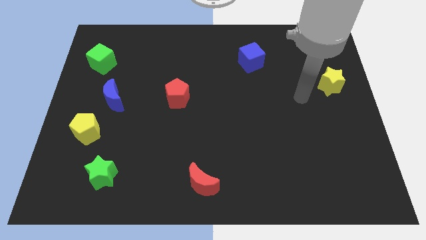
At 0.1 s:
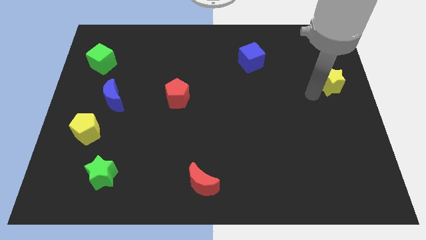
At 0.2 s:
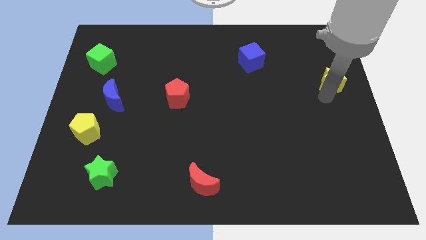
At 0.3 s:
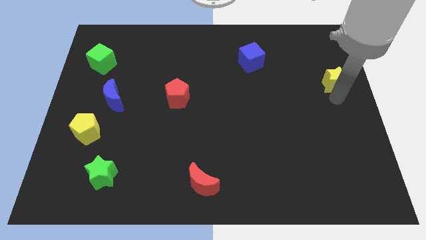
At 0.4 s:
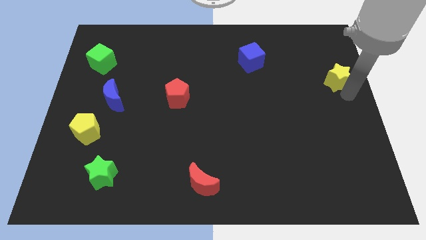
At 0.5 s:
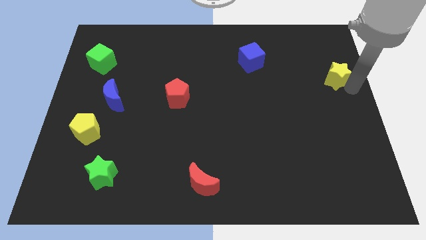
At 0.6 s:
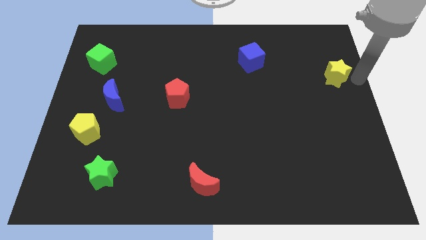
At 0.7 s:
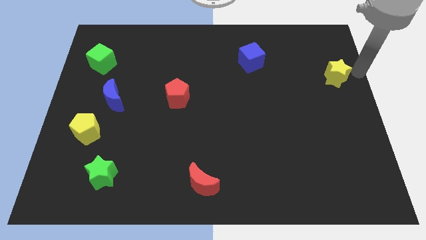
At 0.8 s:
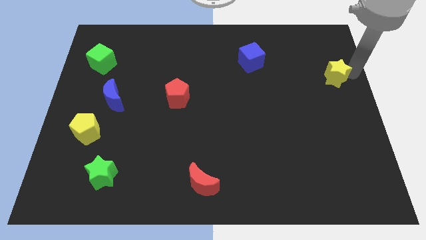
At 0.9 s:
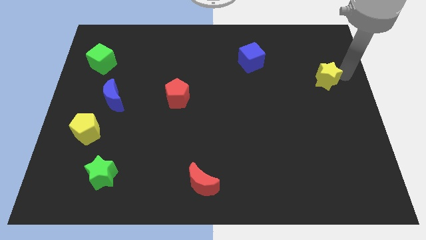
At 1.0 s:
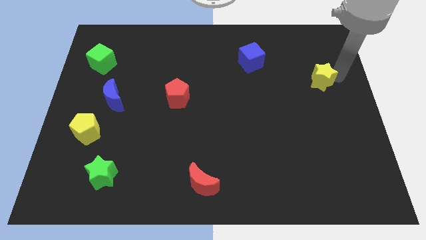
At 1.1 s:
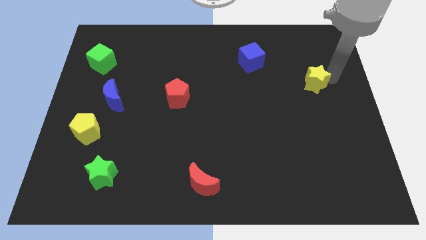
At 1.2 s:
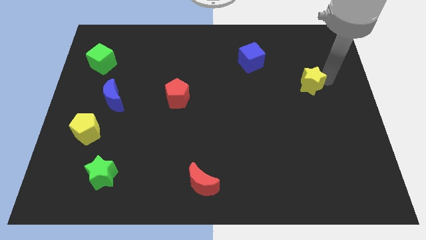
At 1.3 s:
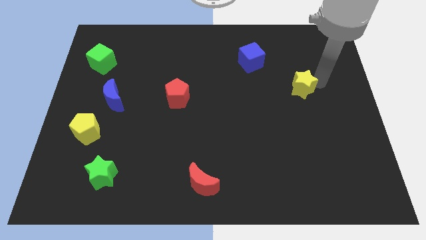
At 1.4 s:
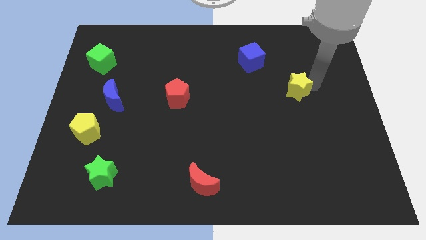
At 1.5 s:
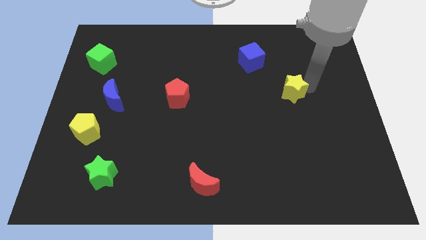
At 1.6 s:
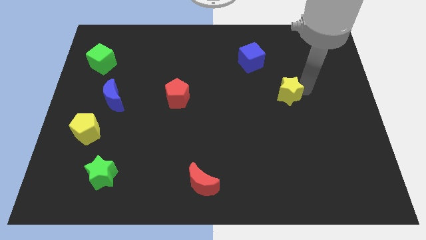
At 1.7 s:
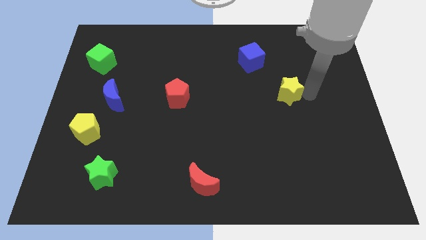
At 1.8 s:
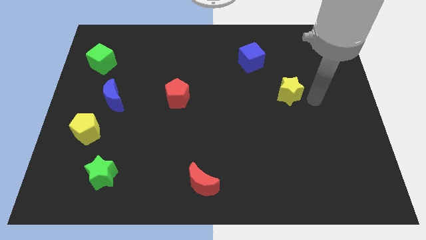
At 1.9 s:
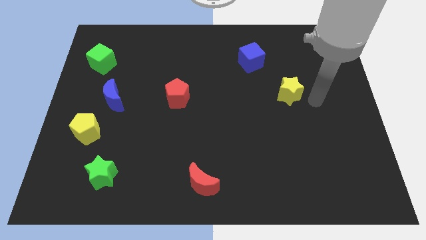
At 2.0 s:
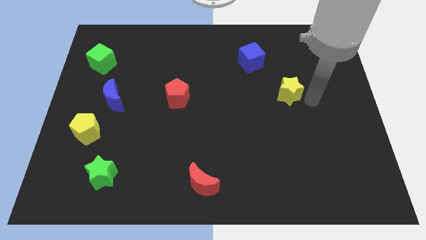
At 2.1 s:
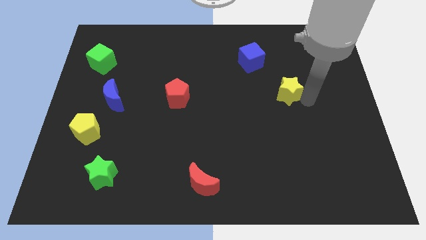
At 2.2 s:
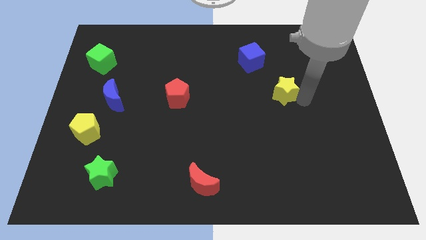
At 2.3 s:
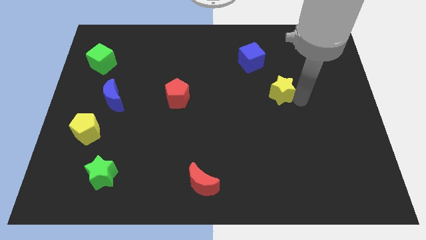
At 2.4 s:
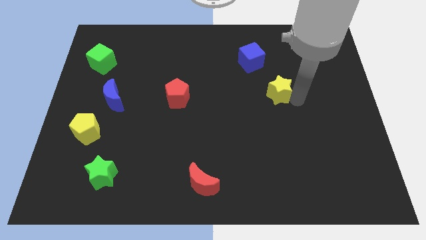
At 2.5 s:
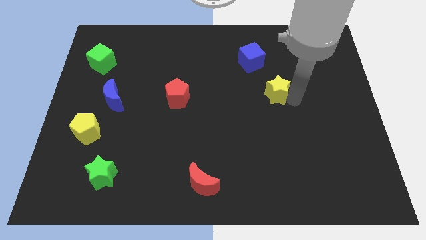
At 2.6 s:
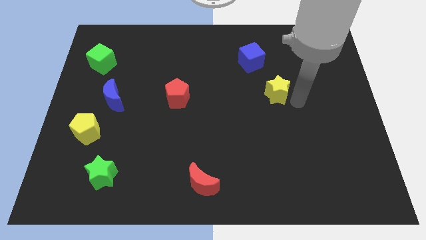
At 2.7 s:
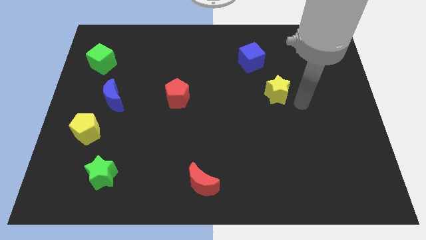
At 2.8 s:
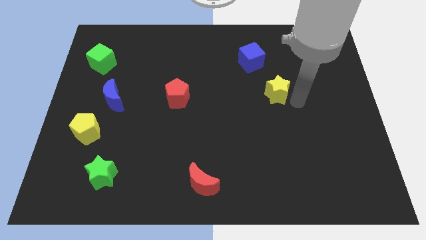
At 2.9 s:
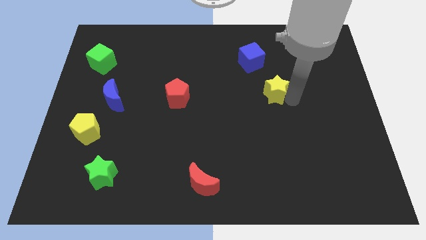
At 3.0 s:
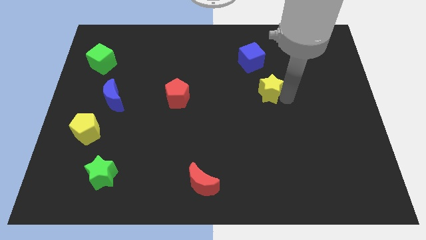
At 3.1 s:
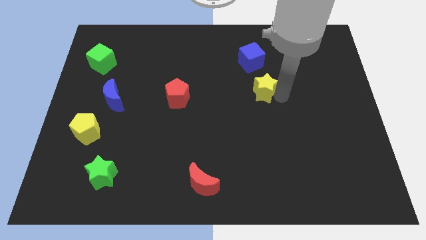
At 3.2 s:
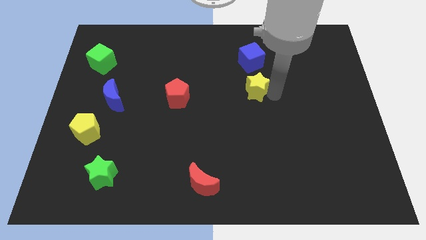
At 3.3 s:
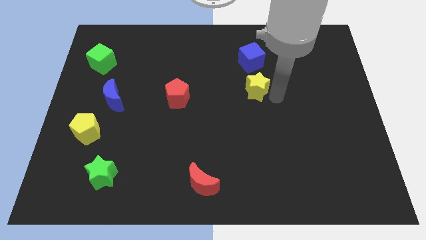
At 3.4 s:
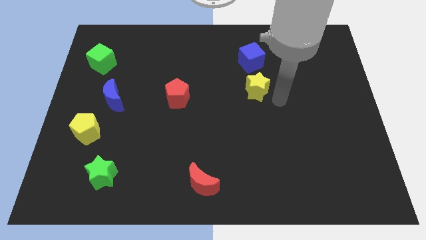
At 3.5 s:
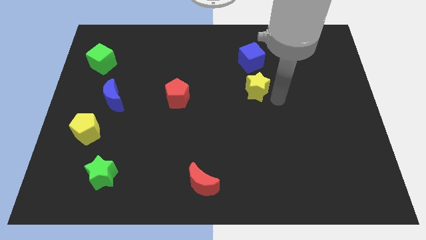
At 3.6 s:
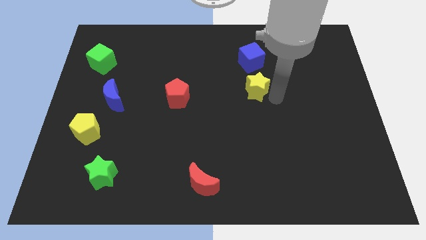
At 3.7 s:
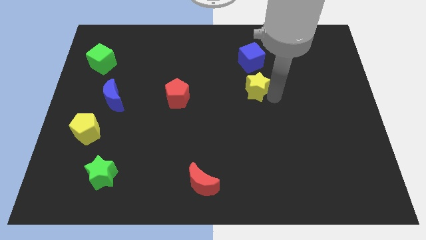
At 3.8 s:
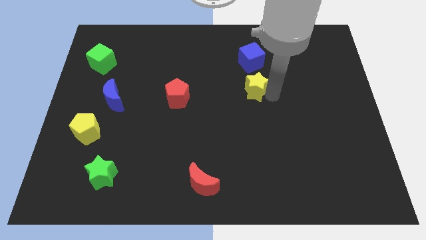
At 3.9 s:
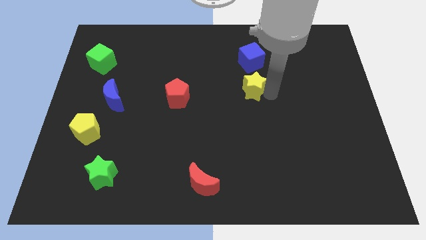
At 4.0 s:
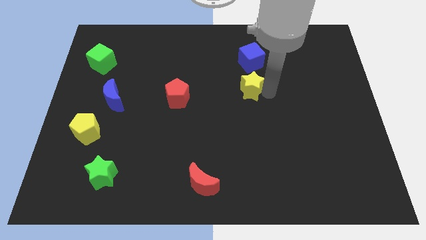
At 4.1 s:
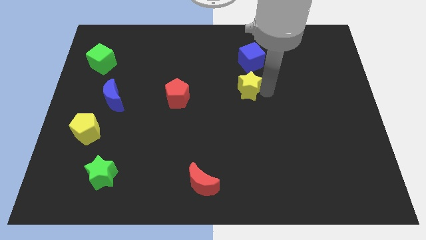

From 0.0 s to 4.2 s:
push the yellow star left

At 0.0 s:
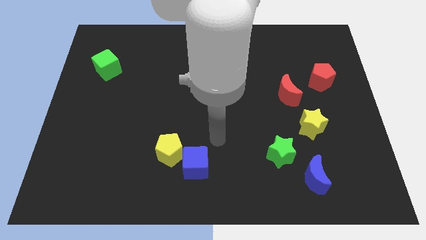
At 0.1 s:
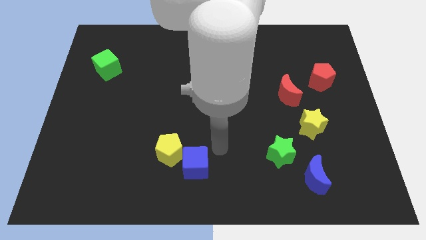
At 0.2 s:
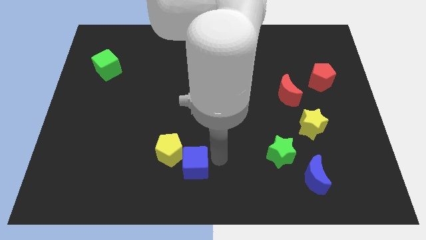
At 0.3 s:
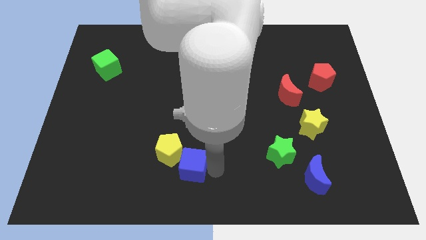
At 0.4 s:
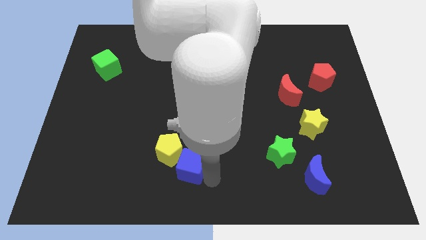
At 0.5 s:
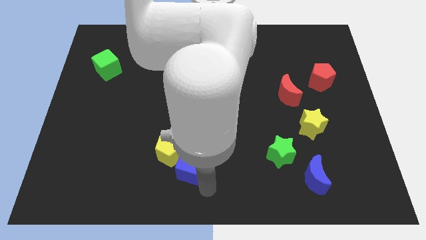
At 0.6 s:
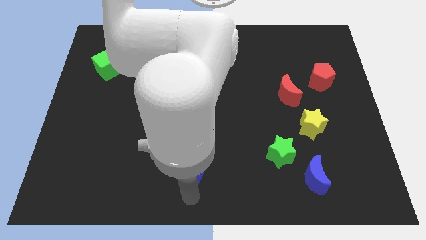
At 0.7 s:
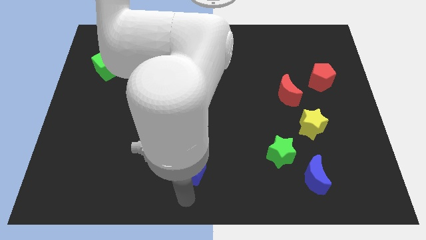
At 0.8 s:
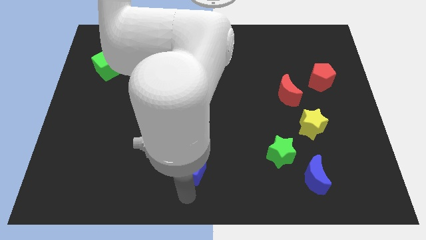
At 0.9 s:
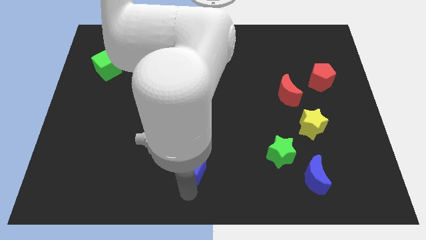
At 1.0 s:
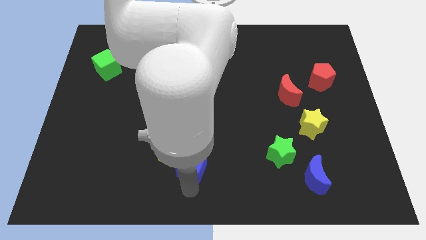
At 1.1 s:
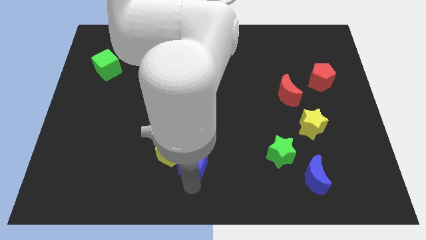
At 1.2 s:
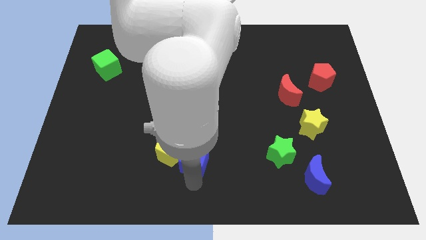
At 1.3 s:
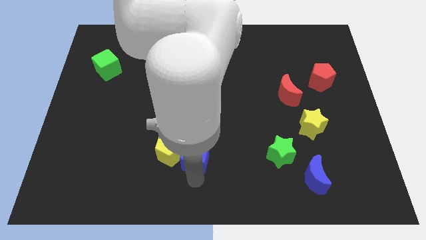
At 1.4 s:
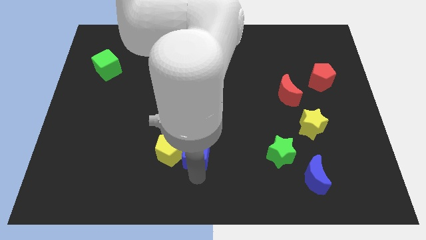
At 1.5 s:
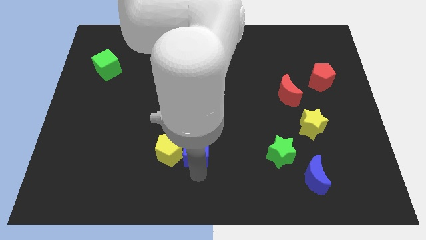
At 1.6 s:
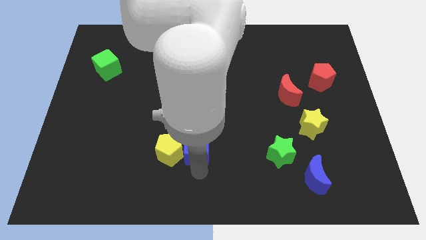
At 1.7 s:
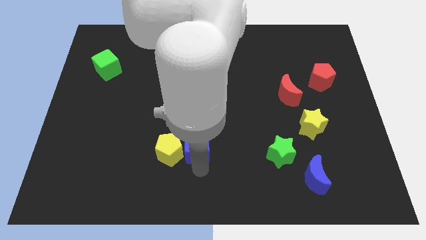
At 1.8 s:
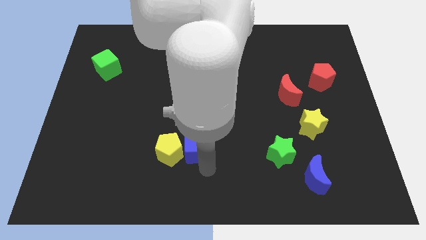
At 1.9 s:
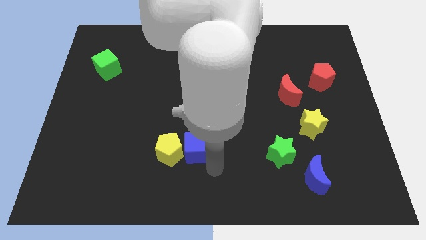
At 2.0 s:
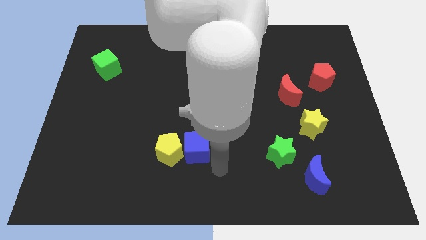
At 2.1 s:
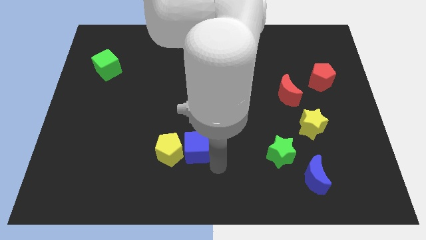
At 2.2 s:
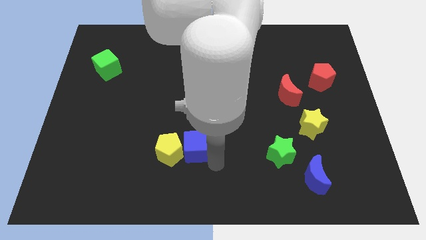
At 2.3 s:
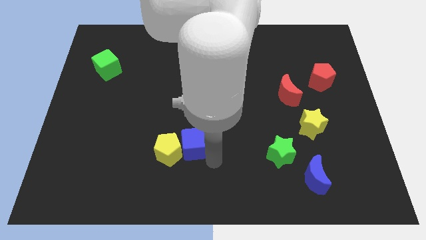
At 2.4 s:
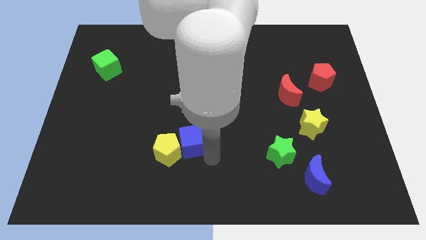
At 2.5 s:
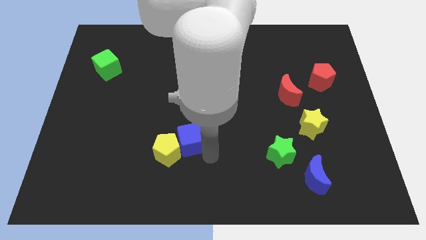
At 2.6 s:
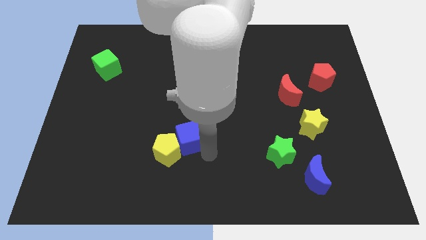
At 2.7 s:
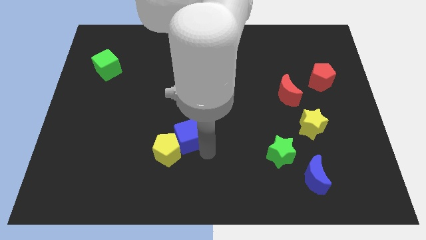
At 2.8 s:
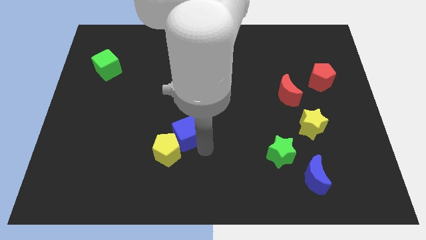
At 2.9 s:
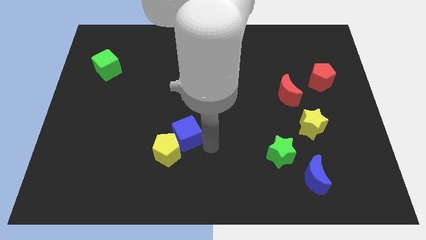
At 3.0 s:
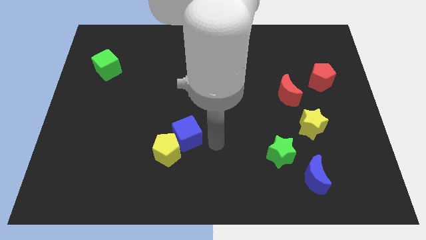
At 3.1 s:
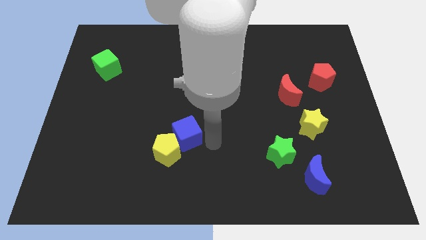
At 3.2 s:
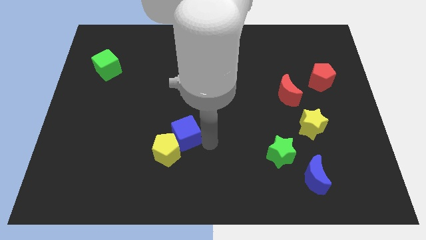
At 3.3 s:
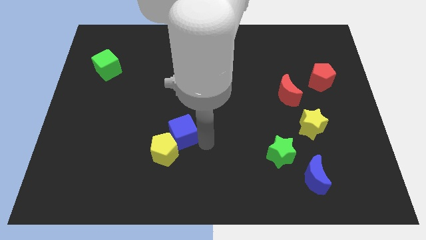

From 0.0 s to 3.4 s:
move the blue cube diagonally up and to the left somewhat

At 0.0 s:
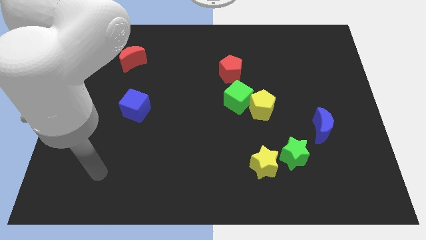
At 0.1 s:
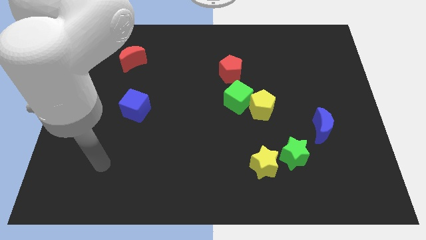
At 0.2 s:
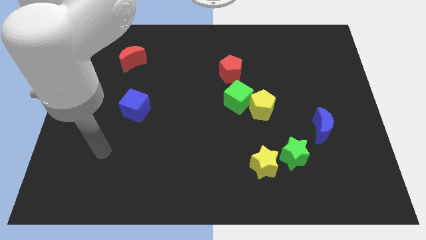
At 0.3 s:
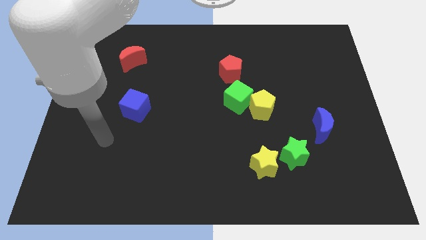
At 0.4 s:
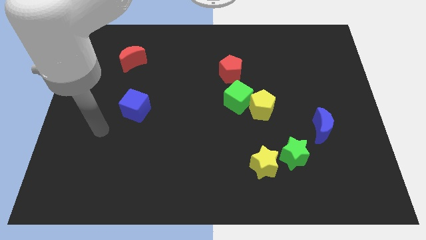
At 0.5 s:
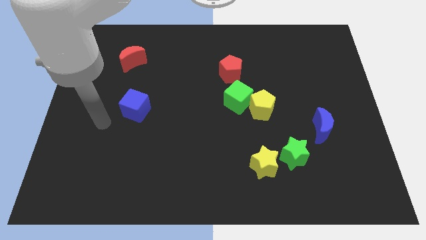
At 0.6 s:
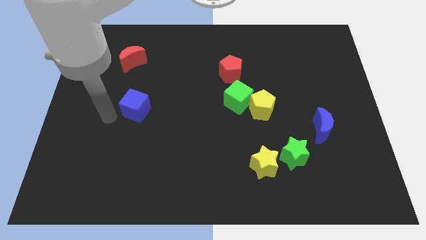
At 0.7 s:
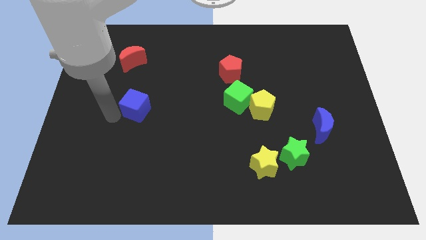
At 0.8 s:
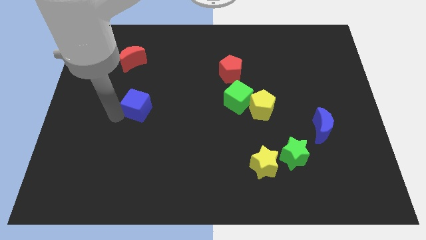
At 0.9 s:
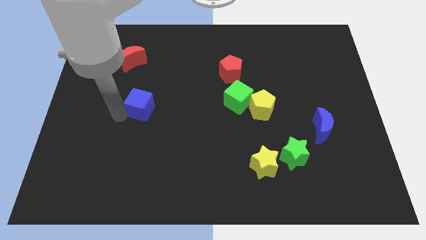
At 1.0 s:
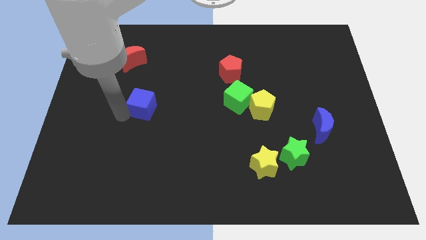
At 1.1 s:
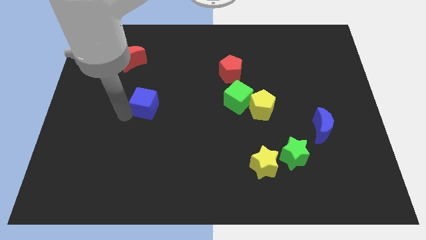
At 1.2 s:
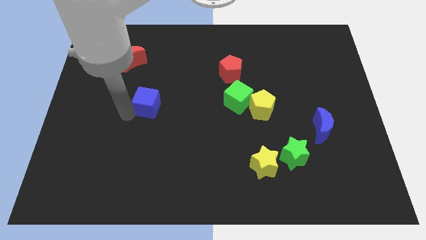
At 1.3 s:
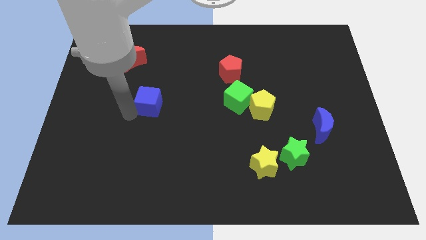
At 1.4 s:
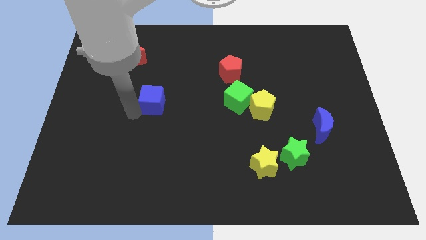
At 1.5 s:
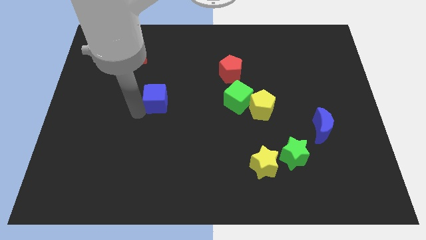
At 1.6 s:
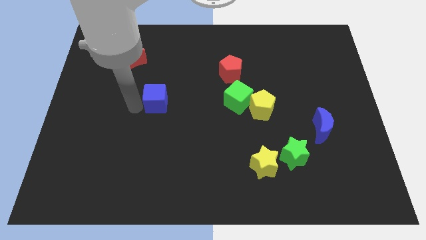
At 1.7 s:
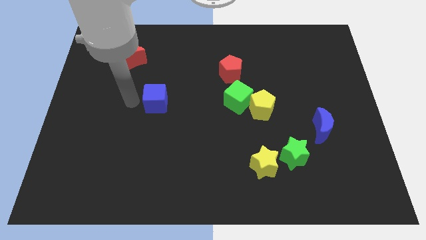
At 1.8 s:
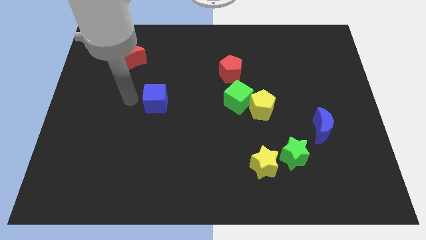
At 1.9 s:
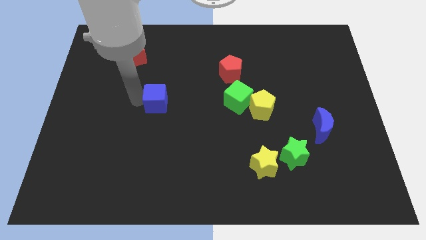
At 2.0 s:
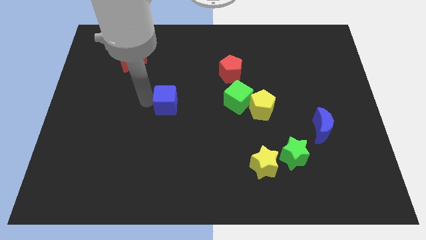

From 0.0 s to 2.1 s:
slide the blue cube right a little bit
